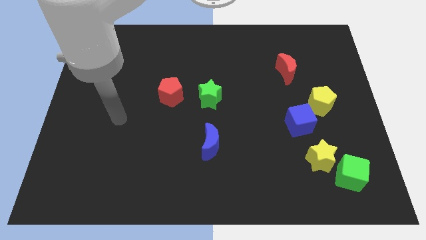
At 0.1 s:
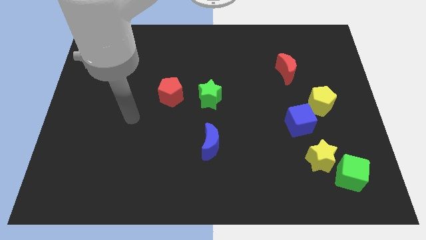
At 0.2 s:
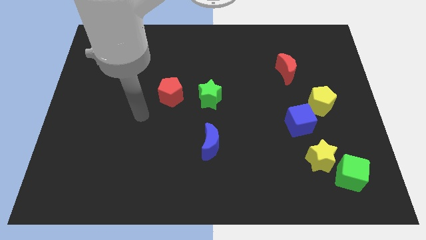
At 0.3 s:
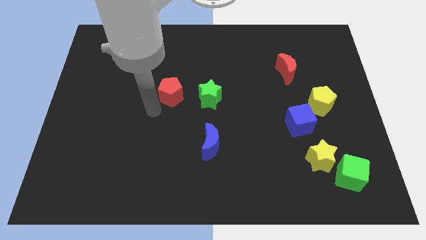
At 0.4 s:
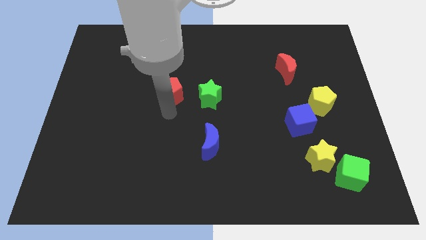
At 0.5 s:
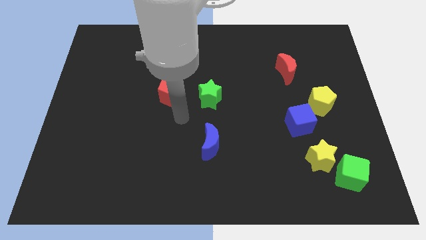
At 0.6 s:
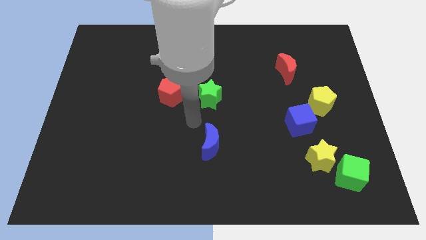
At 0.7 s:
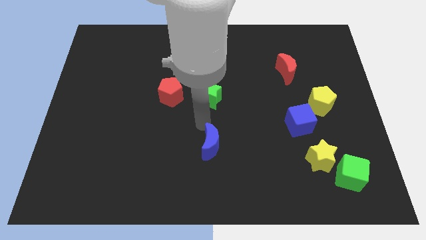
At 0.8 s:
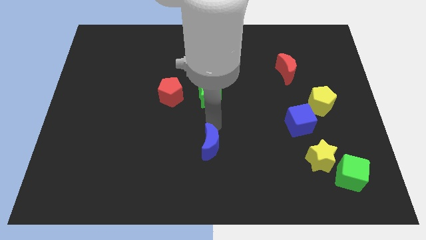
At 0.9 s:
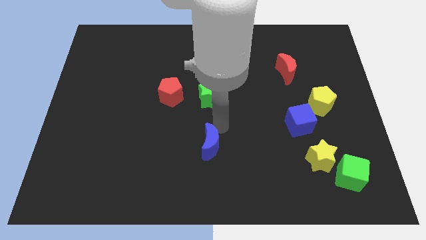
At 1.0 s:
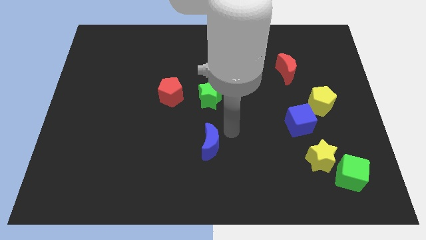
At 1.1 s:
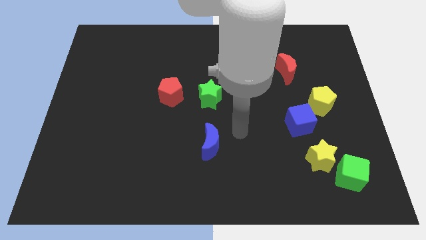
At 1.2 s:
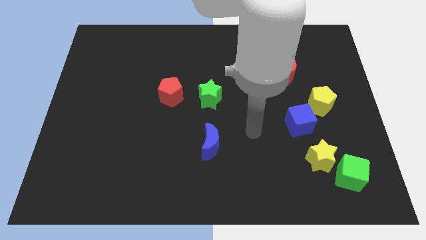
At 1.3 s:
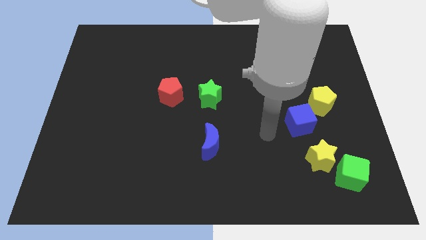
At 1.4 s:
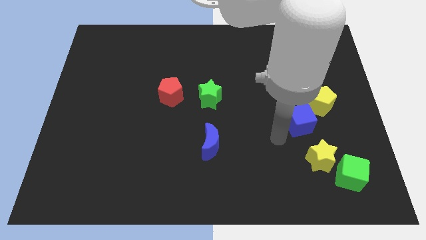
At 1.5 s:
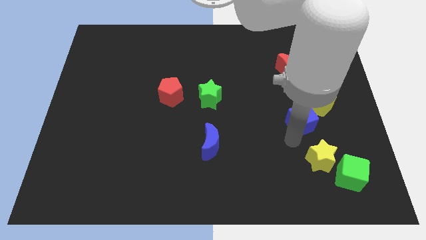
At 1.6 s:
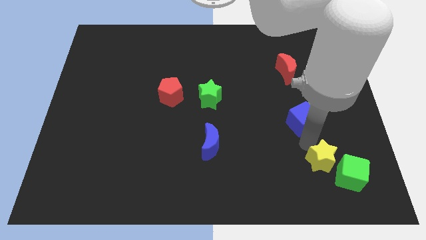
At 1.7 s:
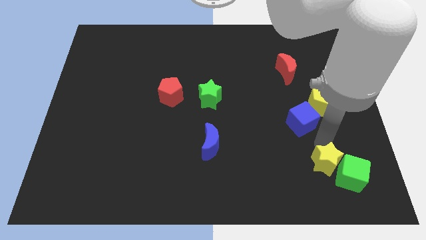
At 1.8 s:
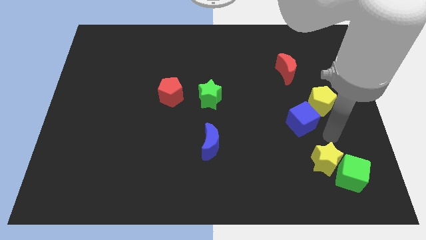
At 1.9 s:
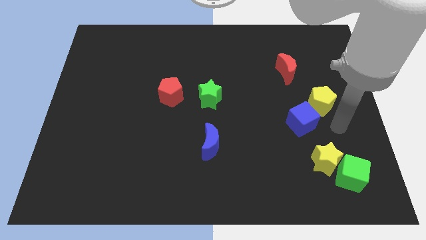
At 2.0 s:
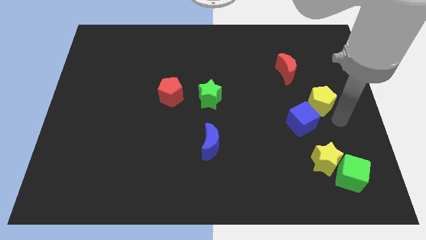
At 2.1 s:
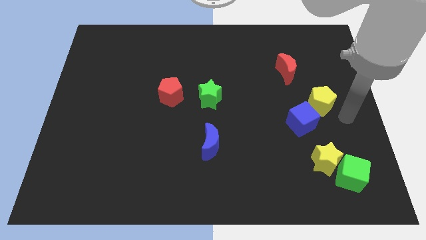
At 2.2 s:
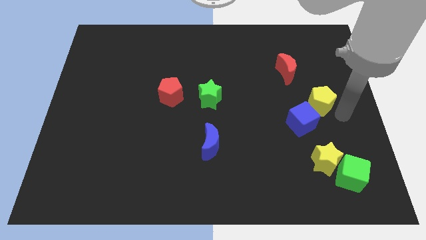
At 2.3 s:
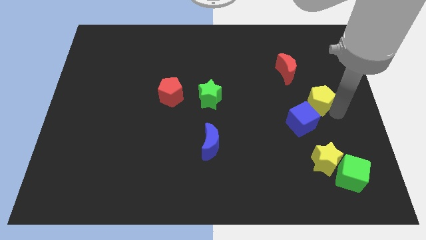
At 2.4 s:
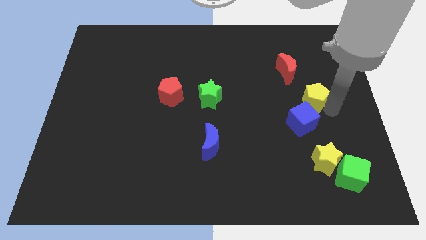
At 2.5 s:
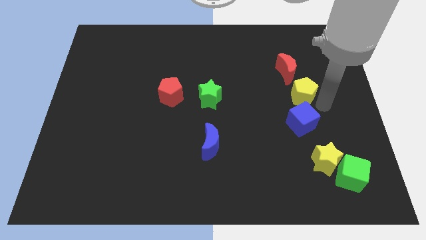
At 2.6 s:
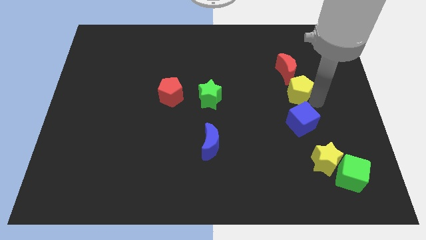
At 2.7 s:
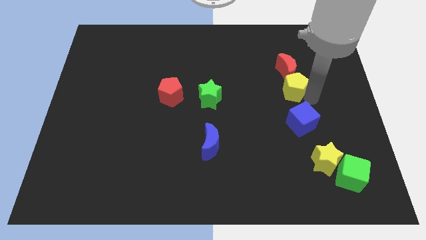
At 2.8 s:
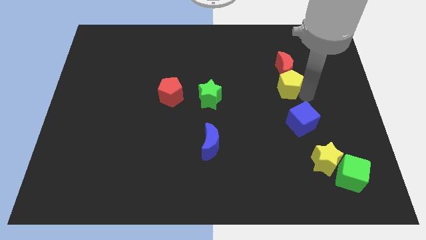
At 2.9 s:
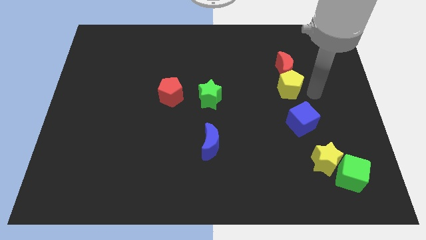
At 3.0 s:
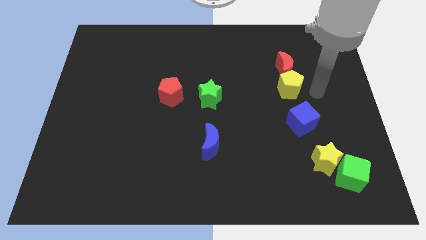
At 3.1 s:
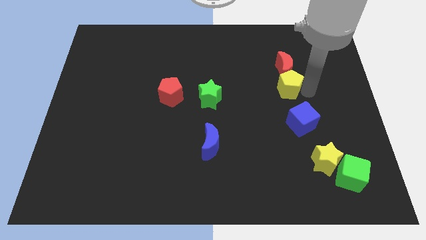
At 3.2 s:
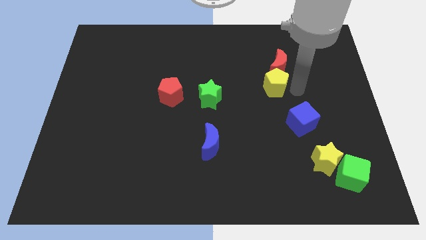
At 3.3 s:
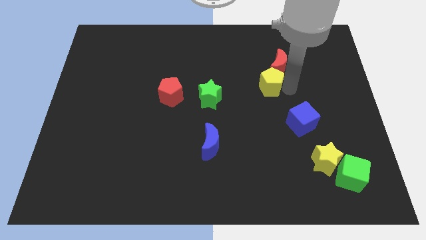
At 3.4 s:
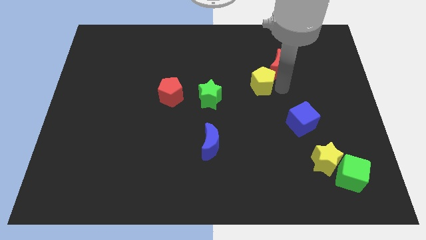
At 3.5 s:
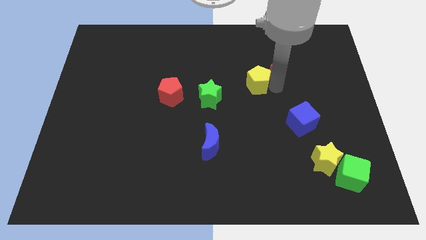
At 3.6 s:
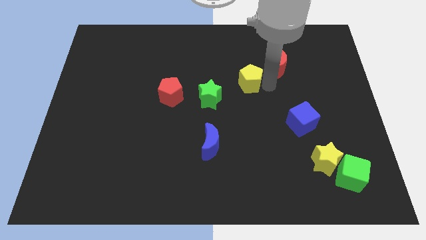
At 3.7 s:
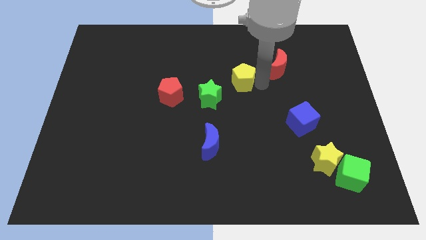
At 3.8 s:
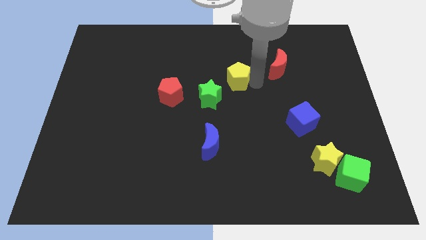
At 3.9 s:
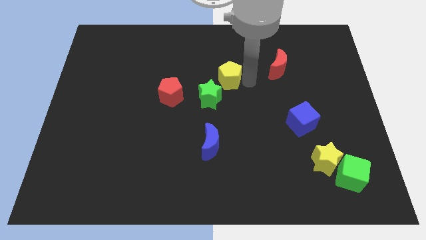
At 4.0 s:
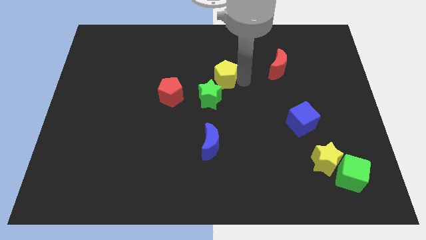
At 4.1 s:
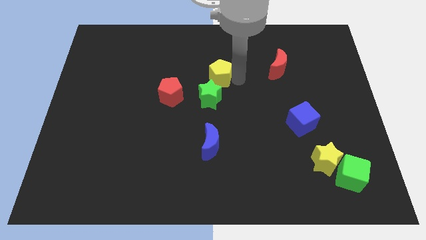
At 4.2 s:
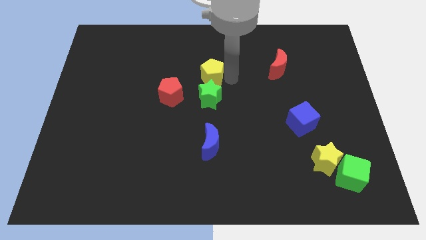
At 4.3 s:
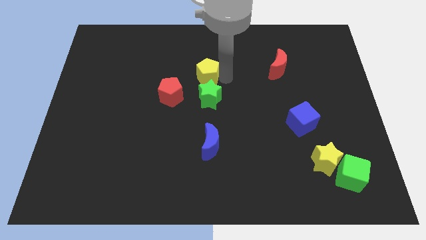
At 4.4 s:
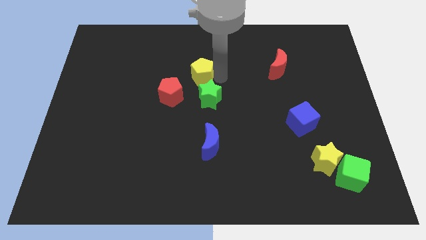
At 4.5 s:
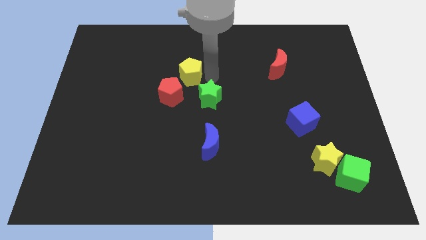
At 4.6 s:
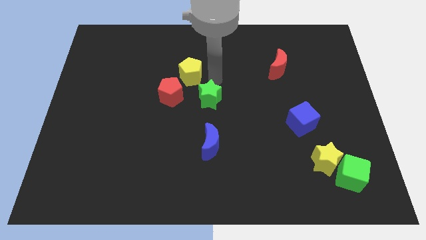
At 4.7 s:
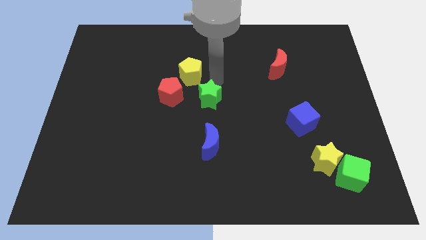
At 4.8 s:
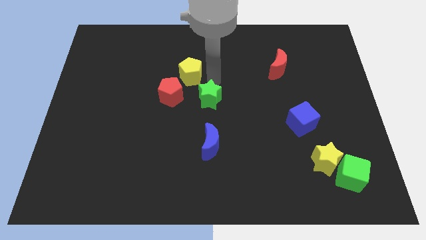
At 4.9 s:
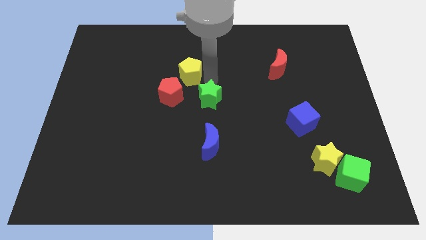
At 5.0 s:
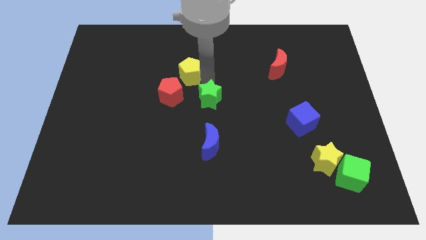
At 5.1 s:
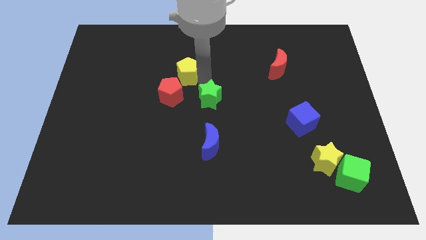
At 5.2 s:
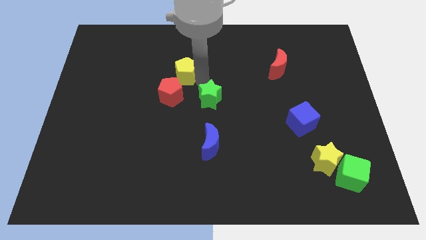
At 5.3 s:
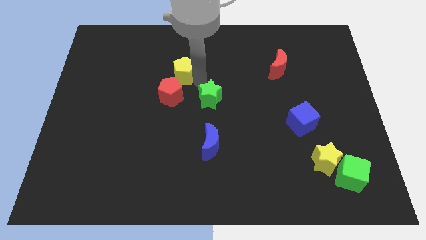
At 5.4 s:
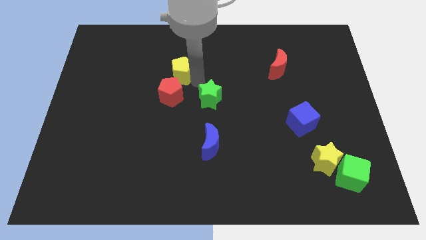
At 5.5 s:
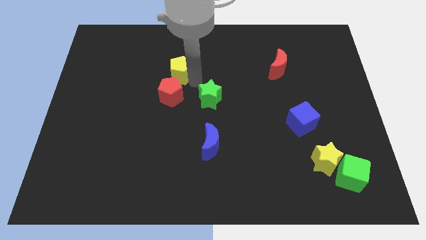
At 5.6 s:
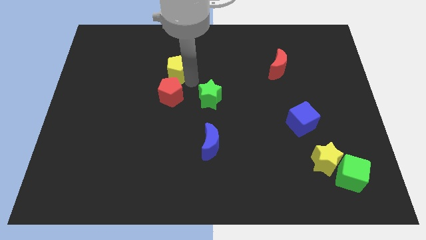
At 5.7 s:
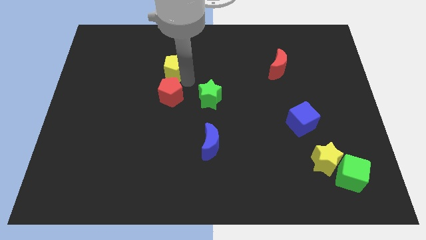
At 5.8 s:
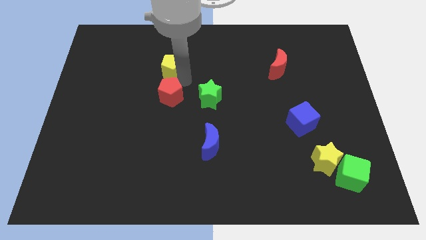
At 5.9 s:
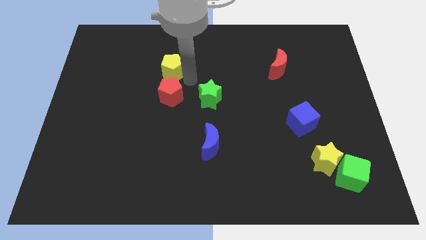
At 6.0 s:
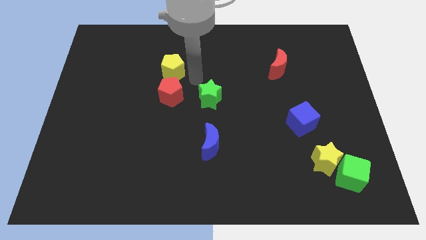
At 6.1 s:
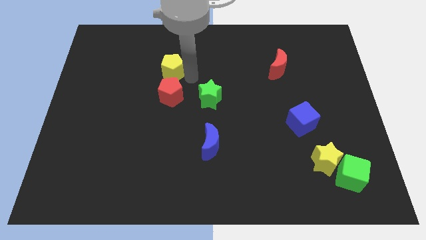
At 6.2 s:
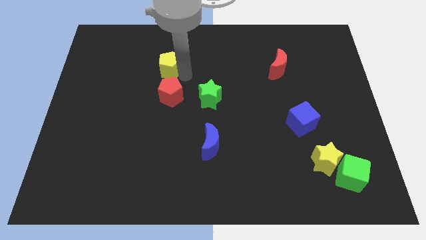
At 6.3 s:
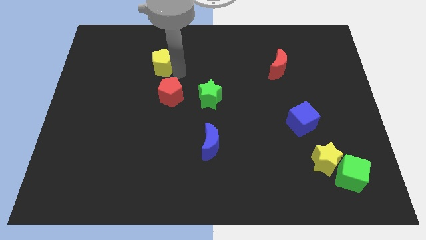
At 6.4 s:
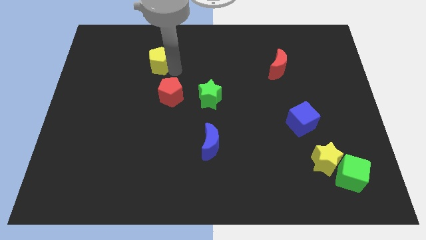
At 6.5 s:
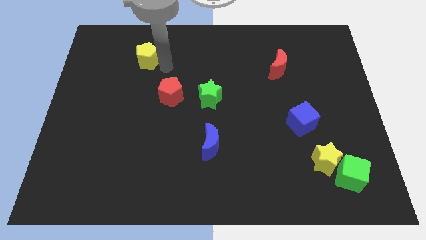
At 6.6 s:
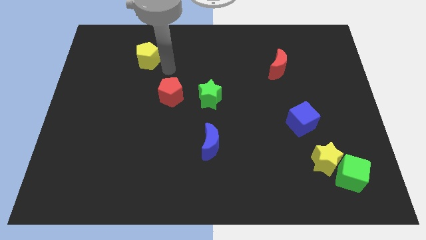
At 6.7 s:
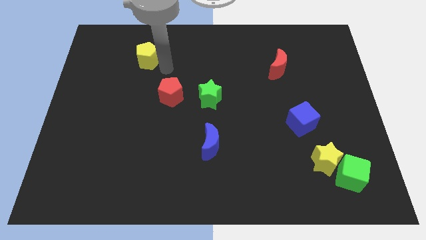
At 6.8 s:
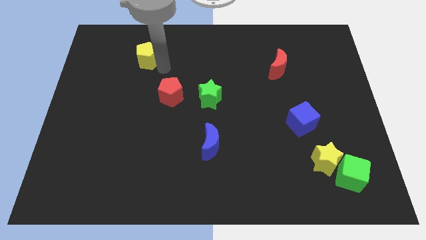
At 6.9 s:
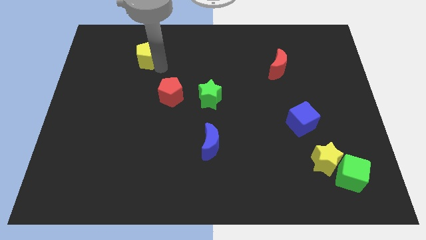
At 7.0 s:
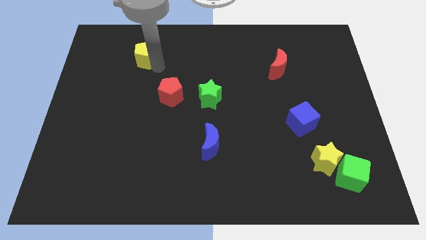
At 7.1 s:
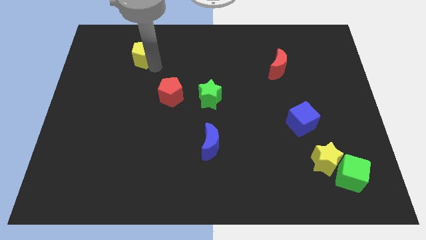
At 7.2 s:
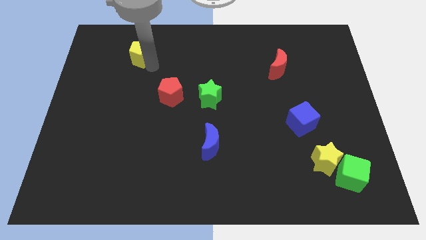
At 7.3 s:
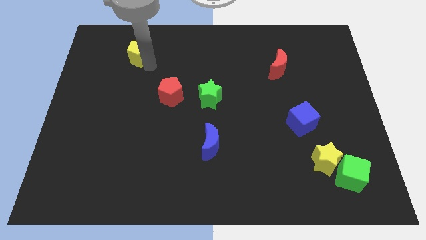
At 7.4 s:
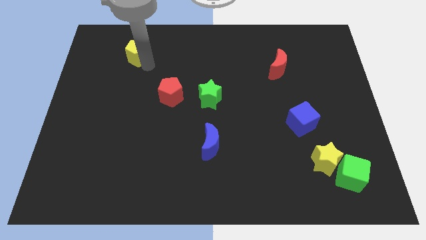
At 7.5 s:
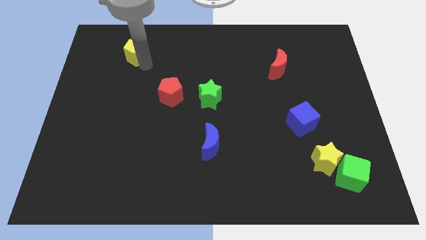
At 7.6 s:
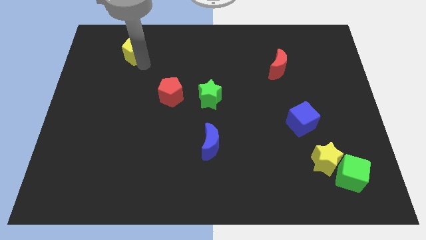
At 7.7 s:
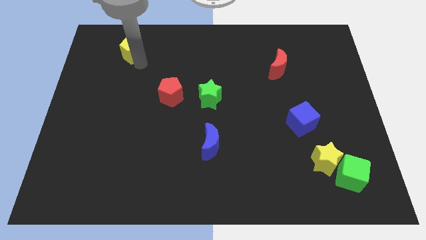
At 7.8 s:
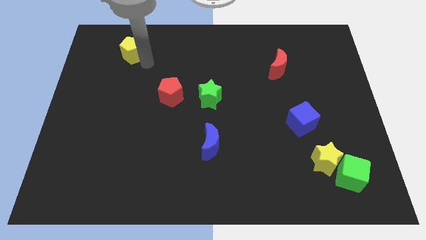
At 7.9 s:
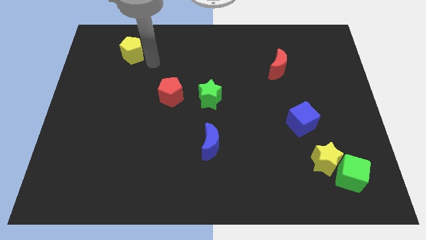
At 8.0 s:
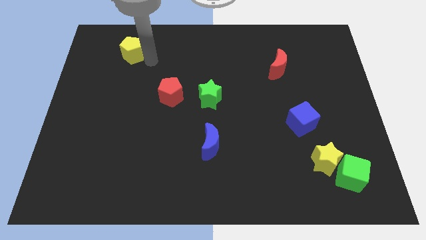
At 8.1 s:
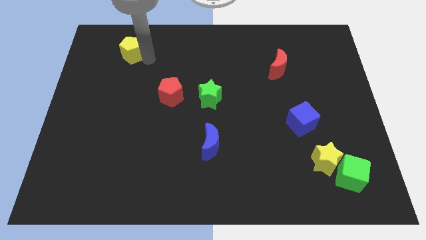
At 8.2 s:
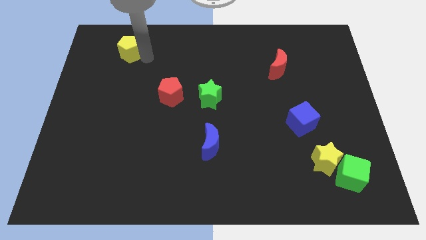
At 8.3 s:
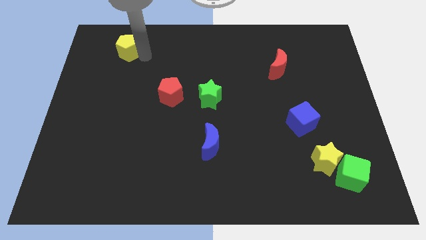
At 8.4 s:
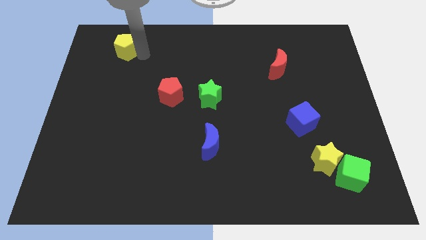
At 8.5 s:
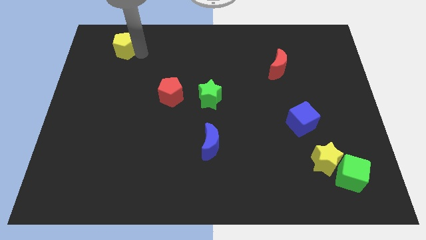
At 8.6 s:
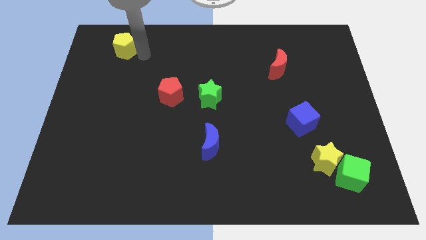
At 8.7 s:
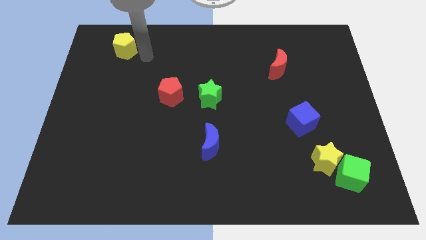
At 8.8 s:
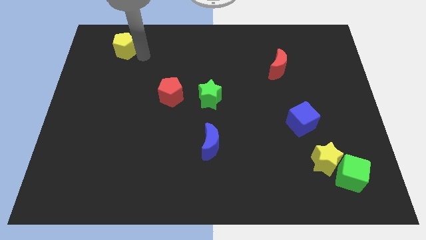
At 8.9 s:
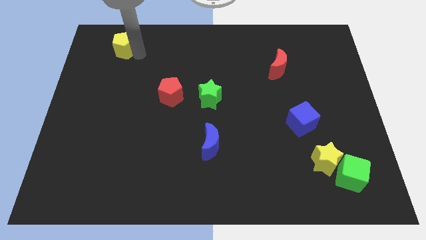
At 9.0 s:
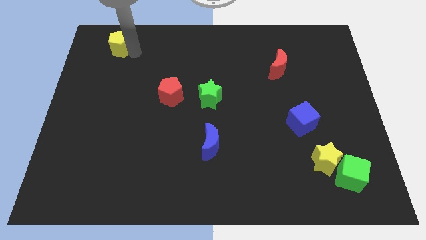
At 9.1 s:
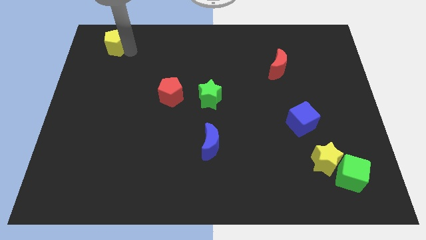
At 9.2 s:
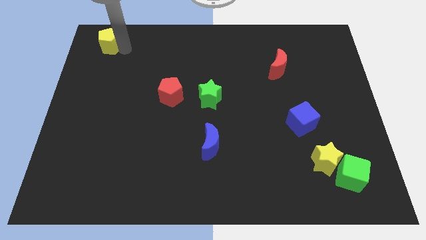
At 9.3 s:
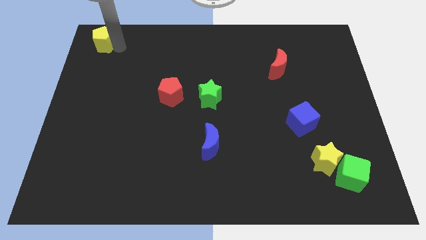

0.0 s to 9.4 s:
push the yellow pentagon to the top left
